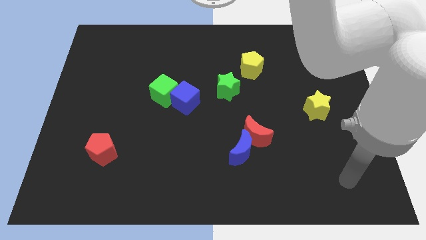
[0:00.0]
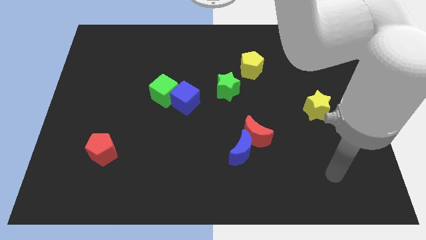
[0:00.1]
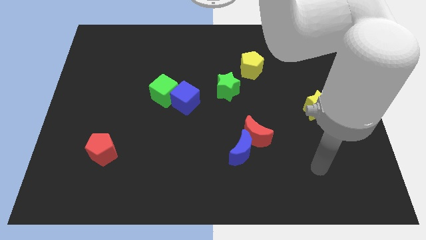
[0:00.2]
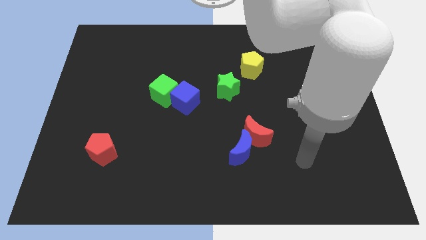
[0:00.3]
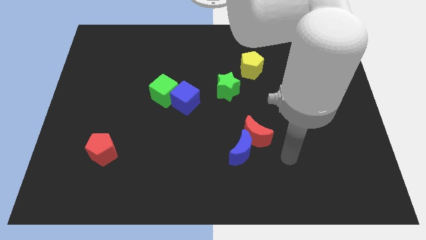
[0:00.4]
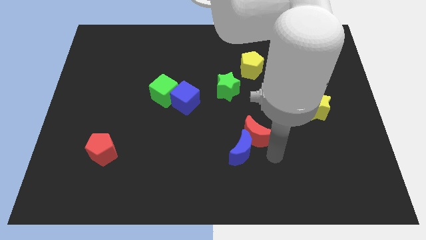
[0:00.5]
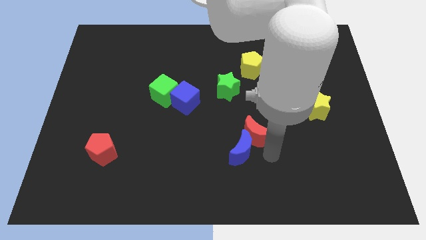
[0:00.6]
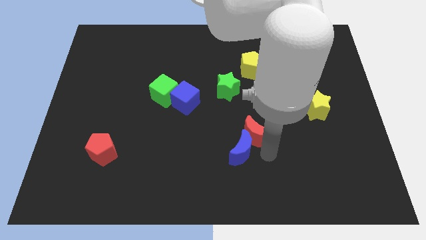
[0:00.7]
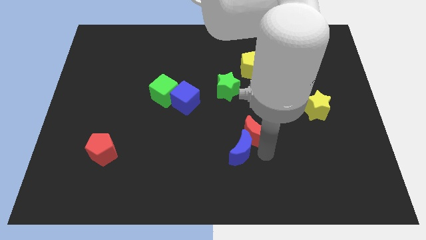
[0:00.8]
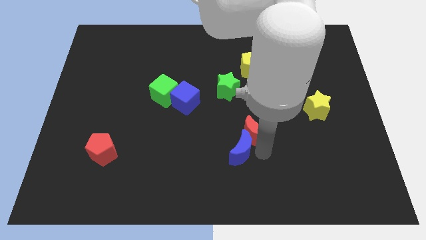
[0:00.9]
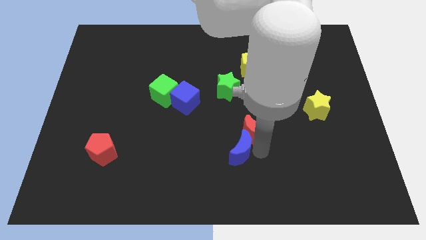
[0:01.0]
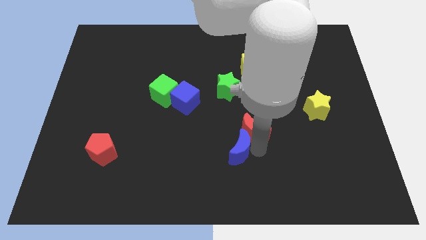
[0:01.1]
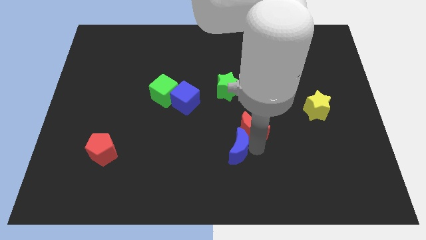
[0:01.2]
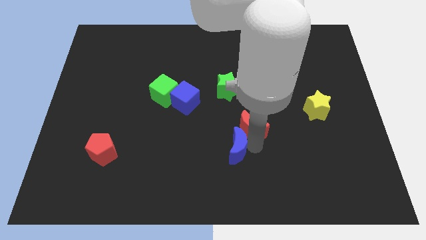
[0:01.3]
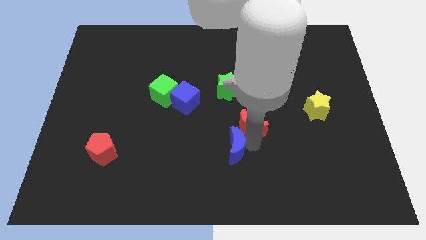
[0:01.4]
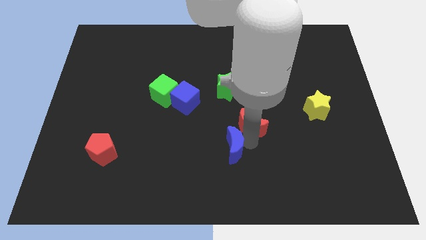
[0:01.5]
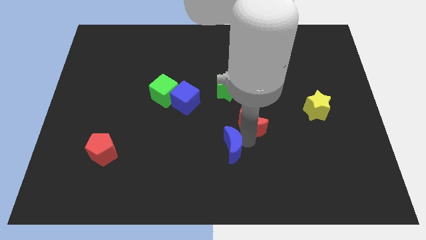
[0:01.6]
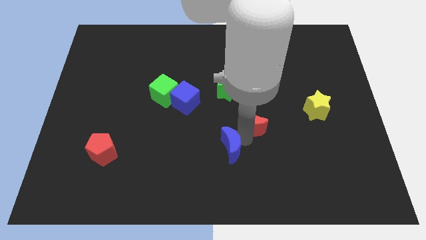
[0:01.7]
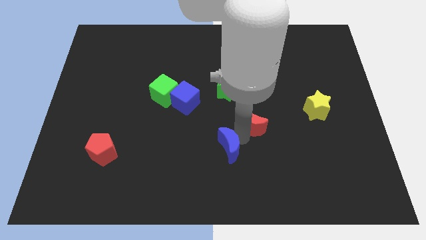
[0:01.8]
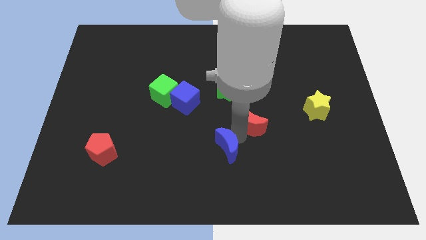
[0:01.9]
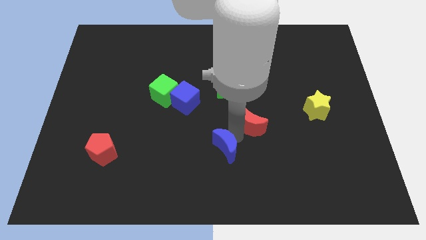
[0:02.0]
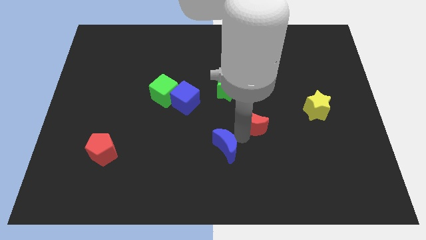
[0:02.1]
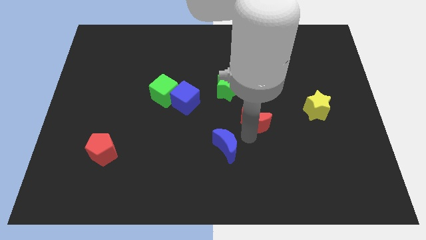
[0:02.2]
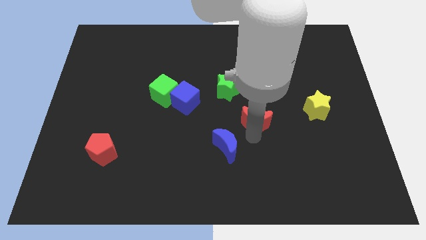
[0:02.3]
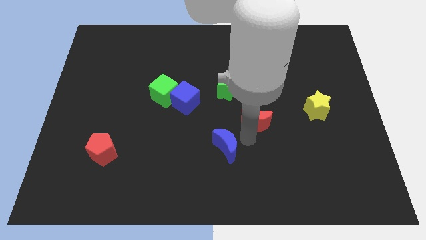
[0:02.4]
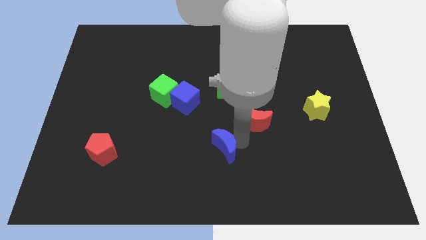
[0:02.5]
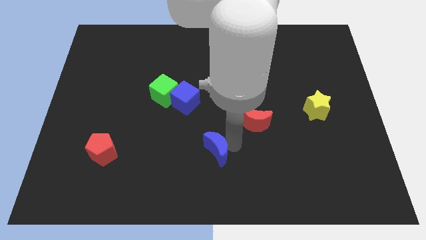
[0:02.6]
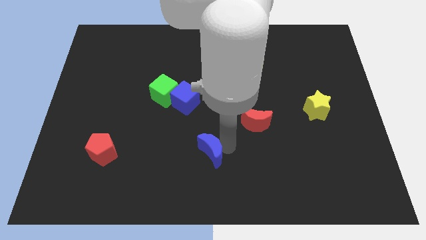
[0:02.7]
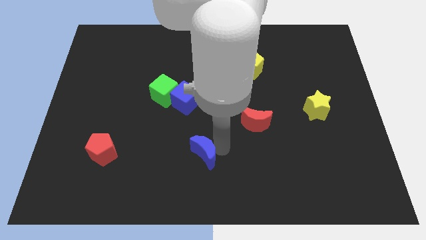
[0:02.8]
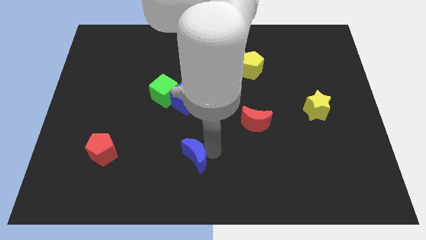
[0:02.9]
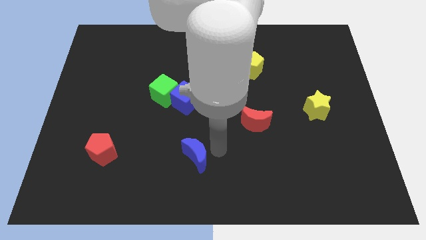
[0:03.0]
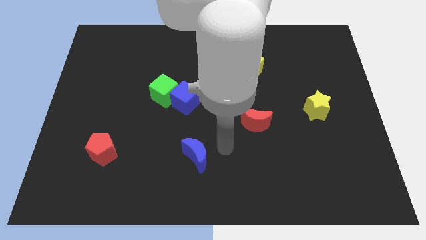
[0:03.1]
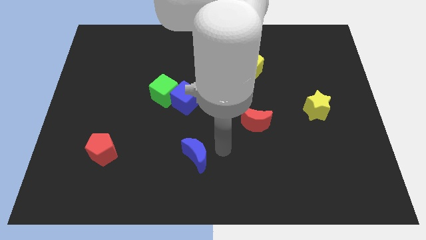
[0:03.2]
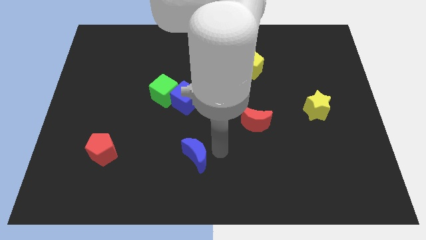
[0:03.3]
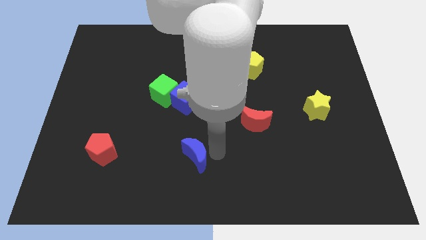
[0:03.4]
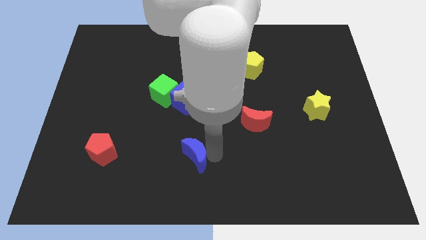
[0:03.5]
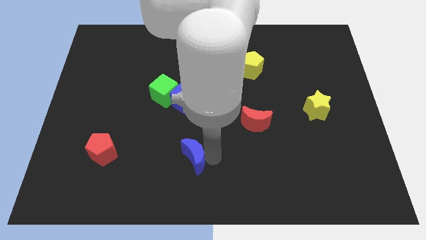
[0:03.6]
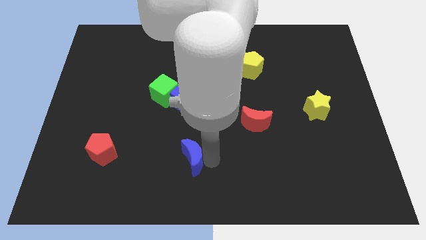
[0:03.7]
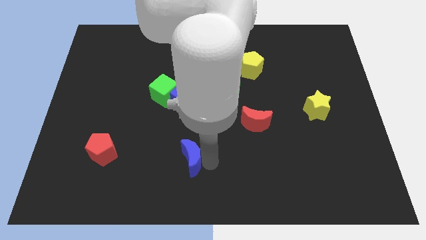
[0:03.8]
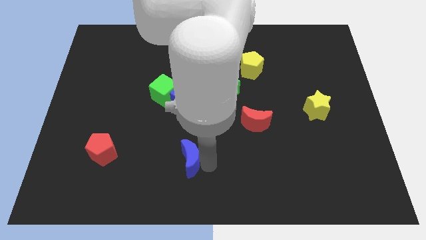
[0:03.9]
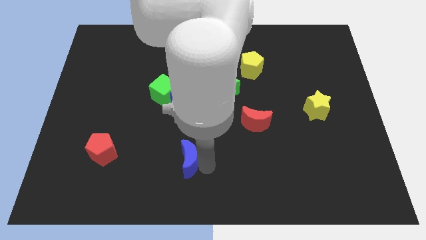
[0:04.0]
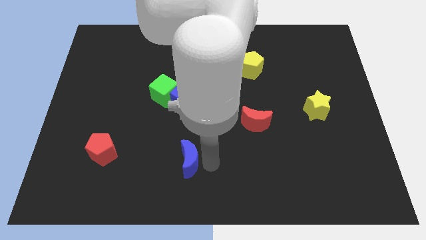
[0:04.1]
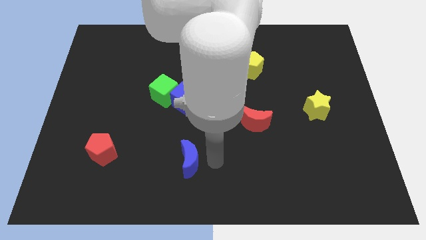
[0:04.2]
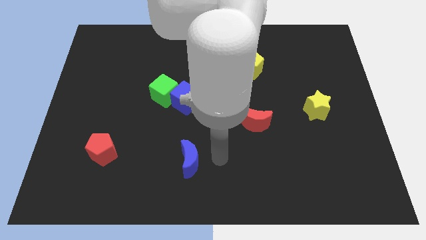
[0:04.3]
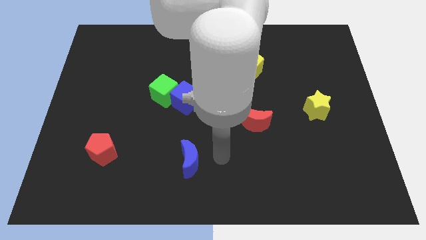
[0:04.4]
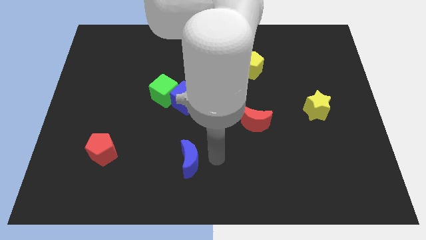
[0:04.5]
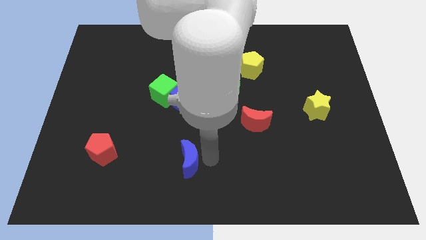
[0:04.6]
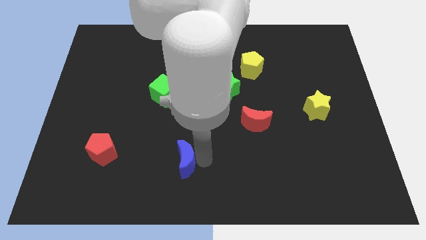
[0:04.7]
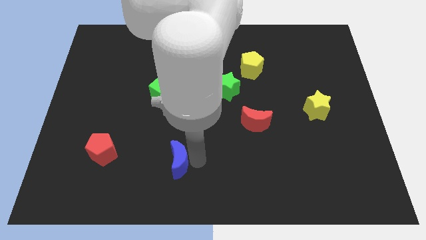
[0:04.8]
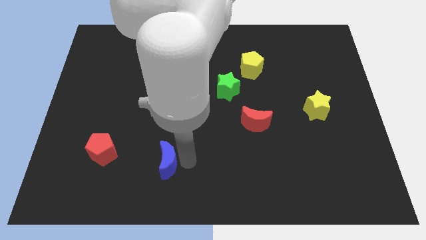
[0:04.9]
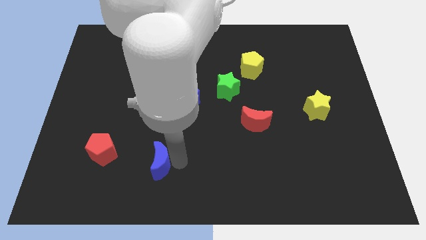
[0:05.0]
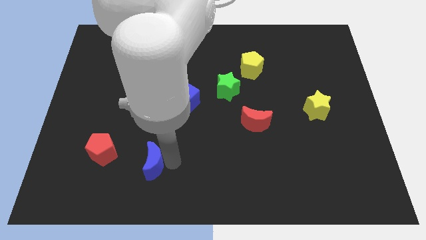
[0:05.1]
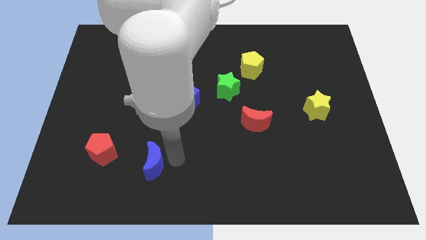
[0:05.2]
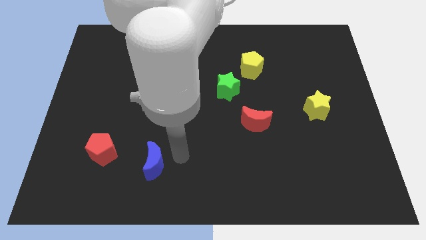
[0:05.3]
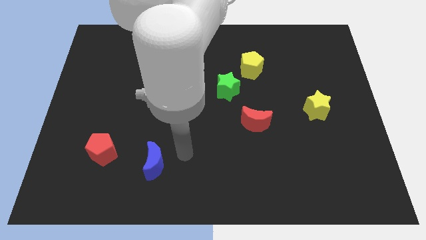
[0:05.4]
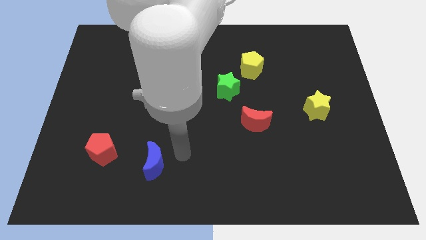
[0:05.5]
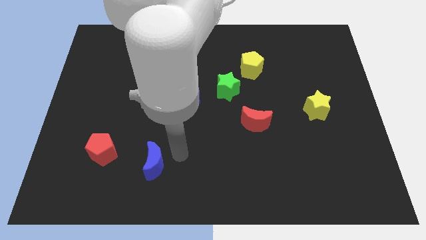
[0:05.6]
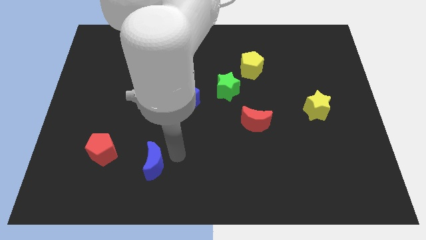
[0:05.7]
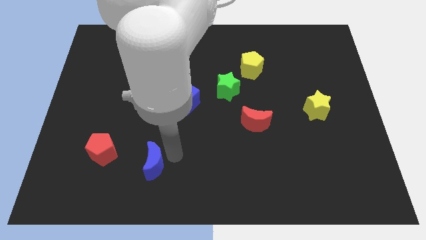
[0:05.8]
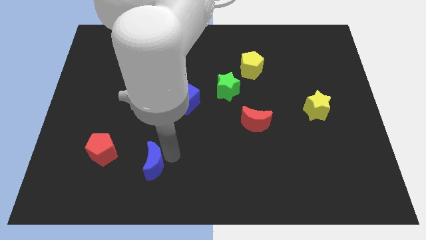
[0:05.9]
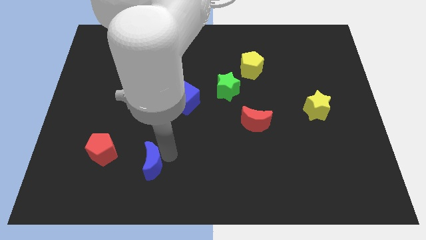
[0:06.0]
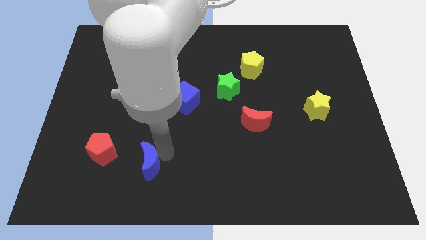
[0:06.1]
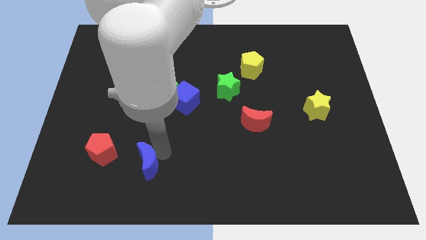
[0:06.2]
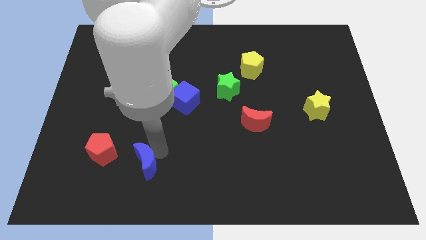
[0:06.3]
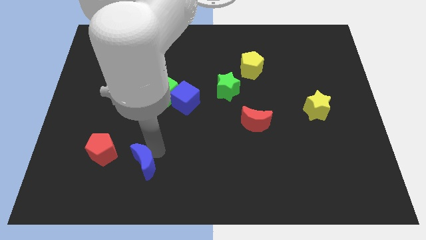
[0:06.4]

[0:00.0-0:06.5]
slide the blue moon diagonally down and to the right of the red pentagon

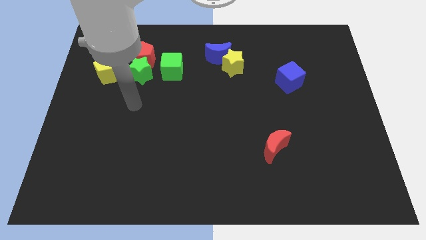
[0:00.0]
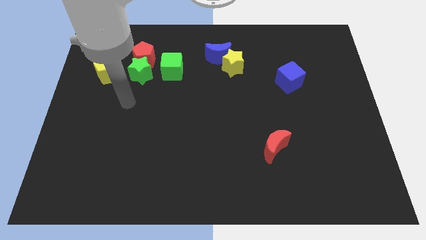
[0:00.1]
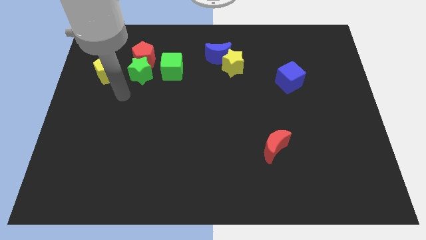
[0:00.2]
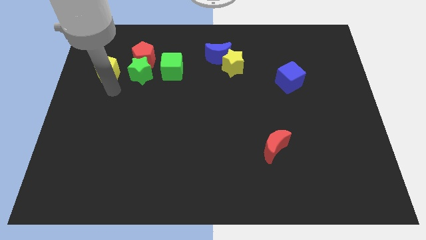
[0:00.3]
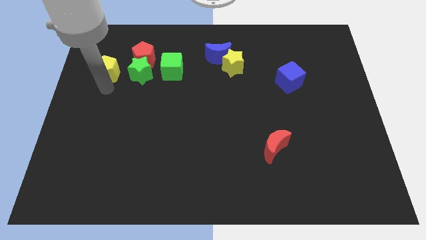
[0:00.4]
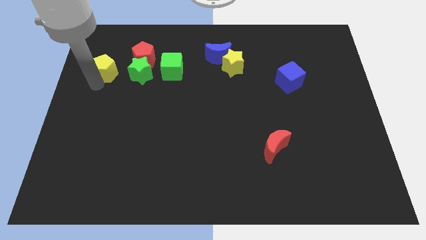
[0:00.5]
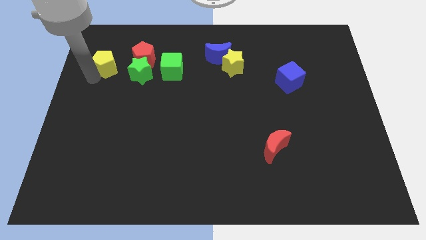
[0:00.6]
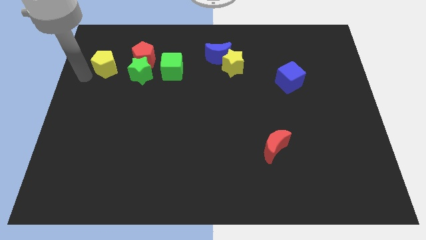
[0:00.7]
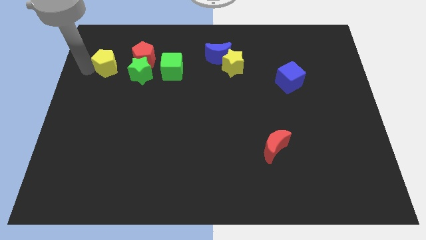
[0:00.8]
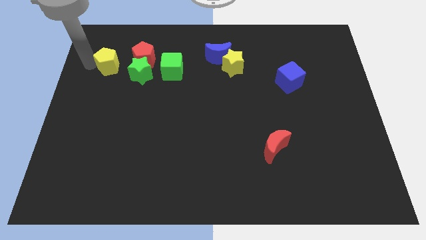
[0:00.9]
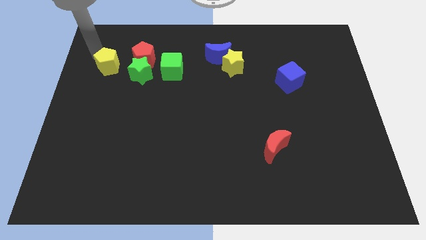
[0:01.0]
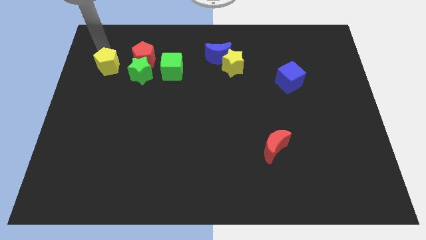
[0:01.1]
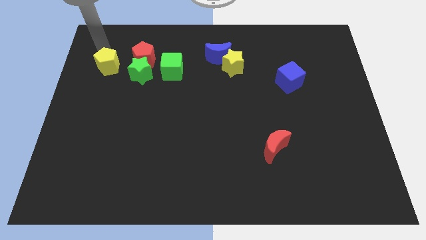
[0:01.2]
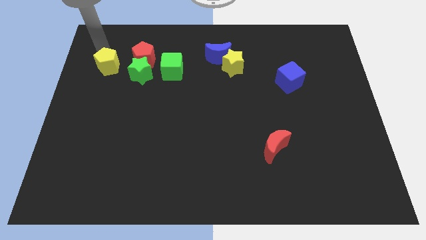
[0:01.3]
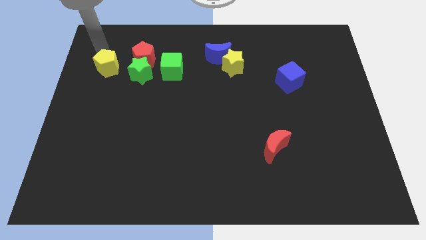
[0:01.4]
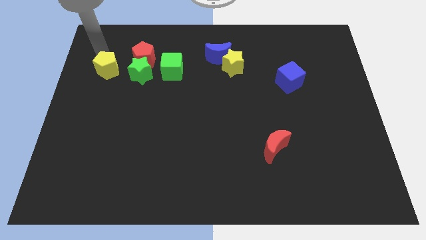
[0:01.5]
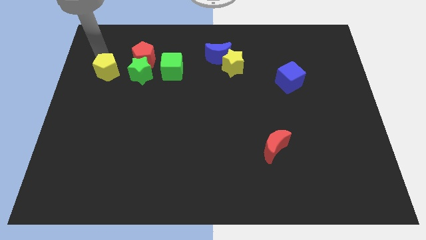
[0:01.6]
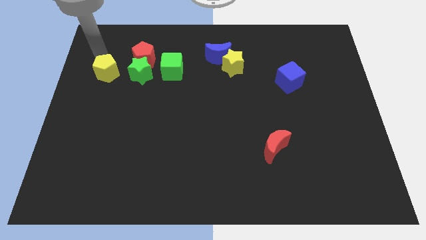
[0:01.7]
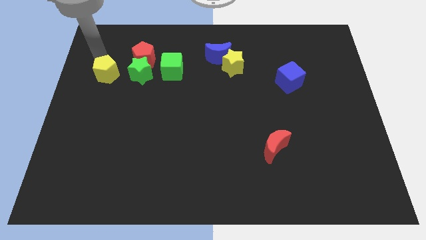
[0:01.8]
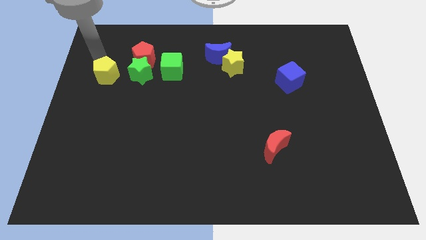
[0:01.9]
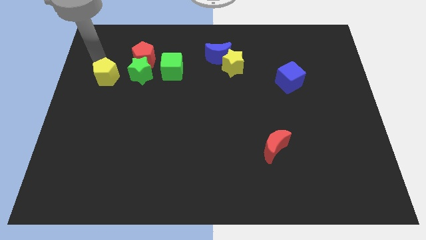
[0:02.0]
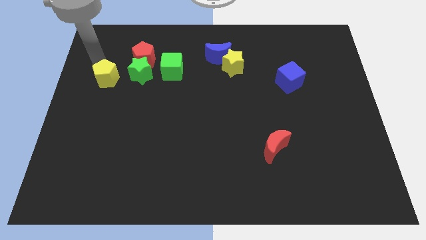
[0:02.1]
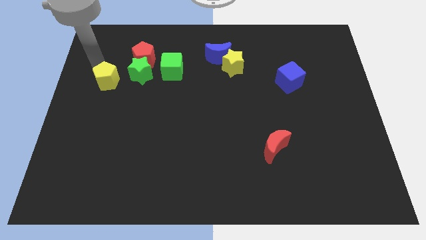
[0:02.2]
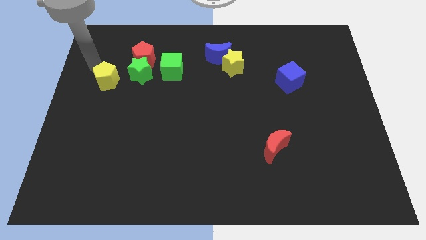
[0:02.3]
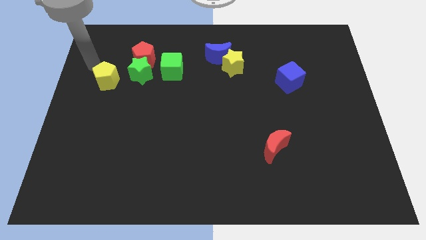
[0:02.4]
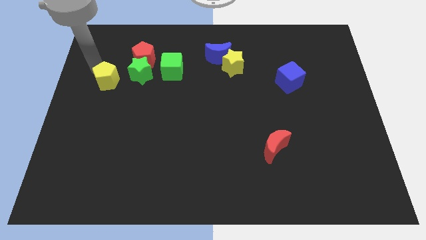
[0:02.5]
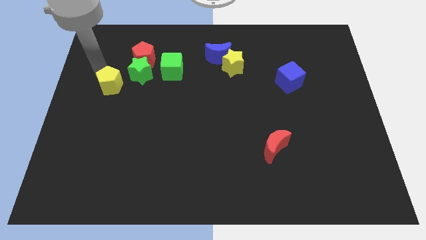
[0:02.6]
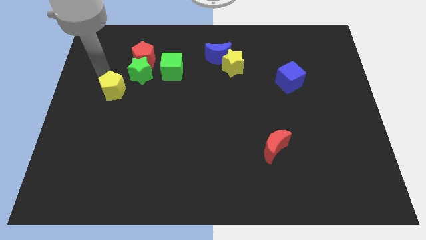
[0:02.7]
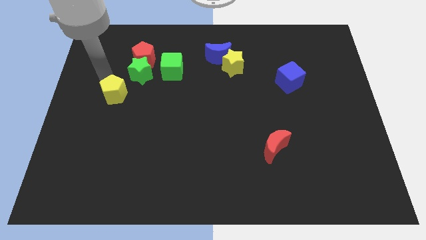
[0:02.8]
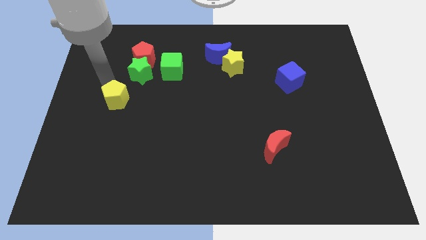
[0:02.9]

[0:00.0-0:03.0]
move the yellow pentagon to the bottom of the green star
